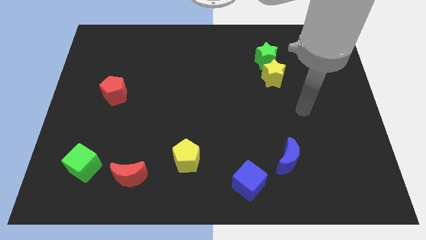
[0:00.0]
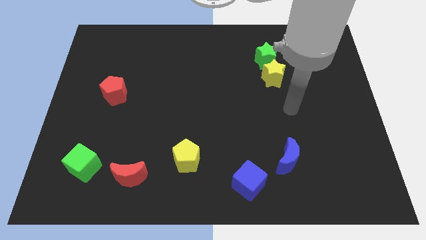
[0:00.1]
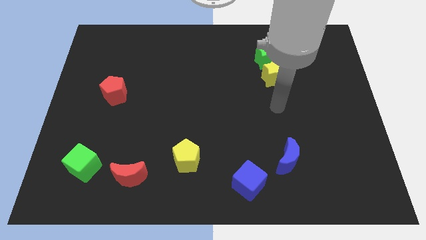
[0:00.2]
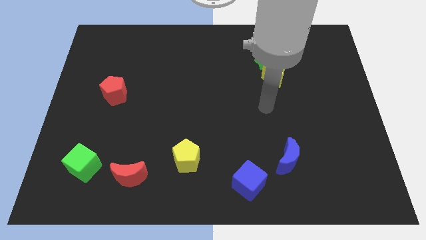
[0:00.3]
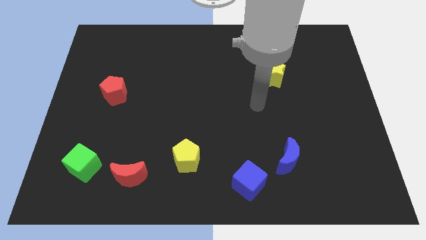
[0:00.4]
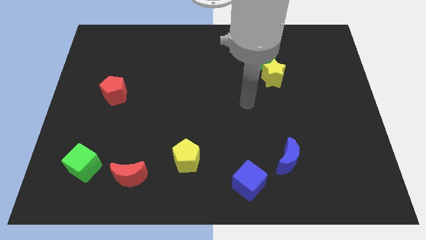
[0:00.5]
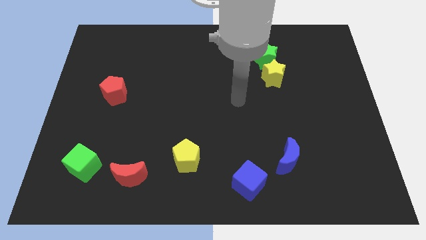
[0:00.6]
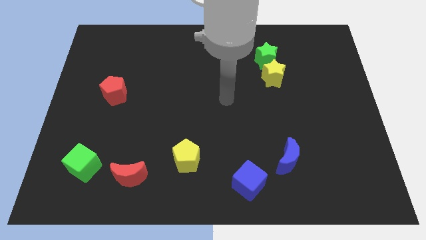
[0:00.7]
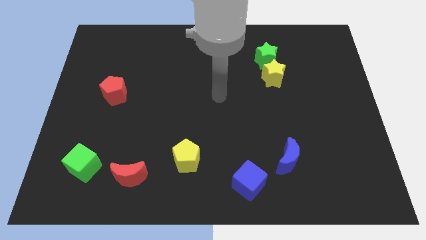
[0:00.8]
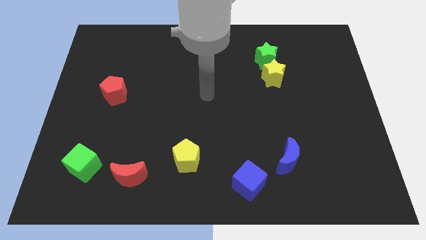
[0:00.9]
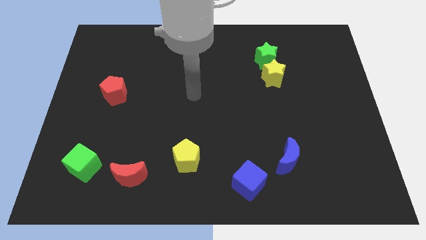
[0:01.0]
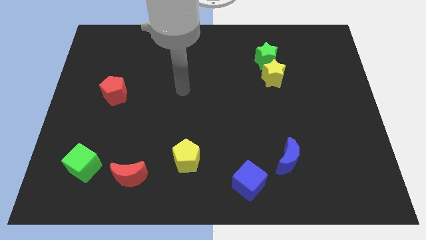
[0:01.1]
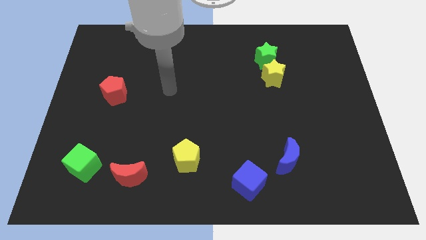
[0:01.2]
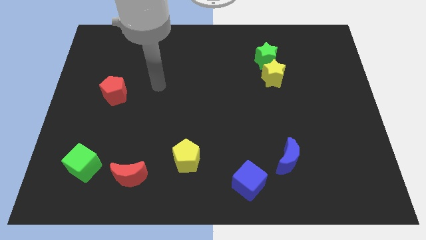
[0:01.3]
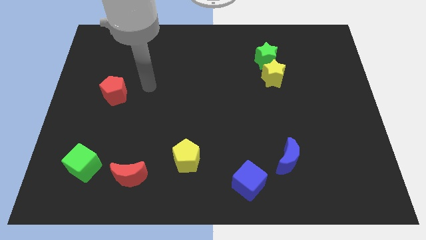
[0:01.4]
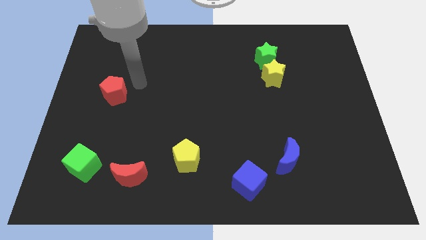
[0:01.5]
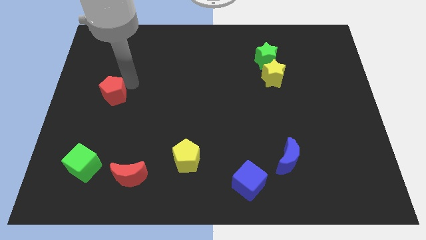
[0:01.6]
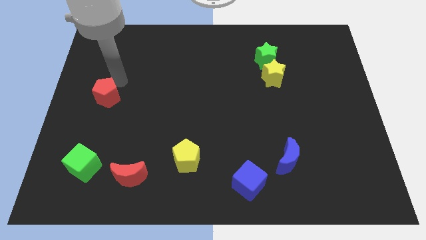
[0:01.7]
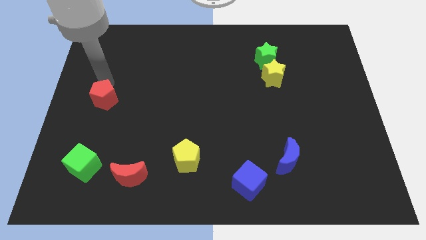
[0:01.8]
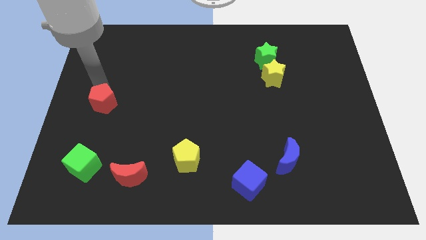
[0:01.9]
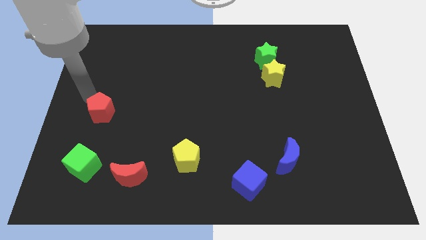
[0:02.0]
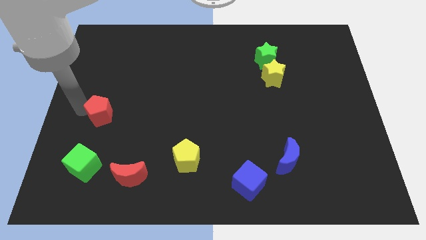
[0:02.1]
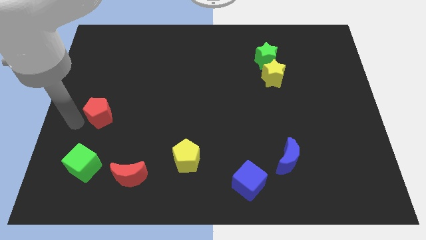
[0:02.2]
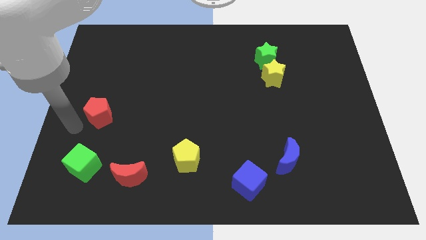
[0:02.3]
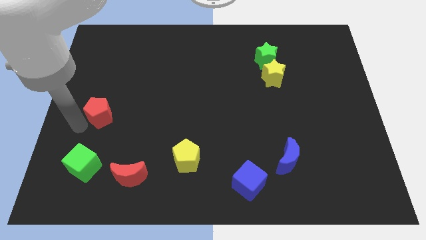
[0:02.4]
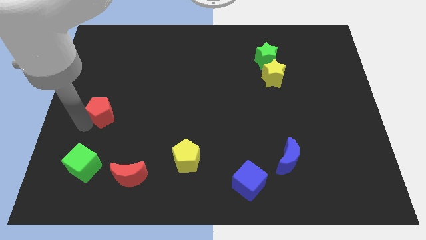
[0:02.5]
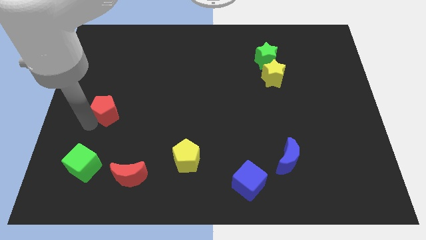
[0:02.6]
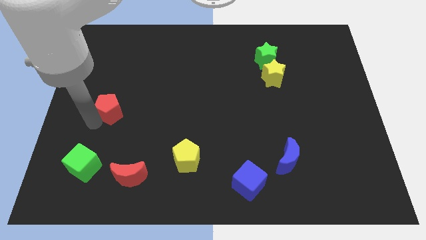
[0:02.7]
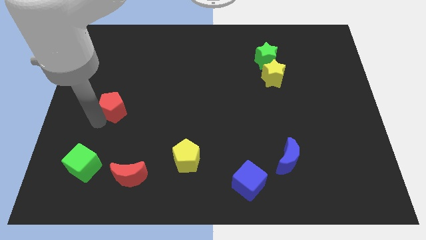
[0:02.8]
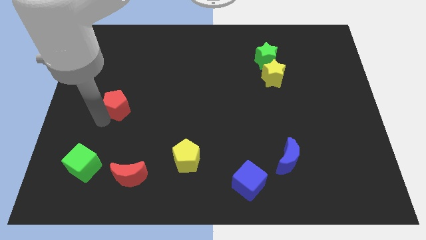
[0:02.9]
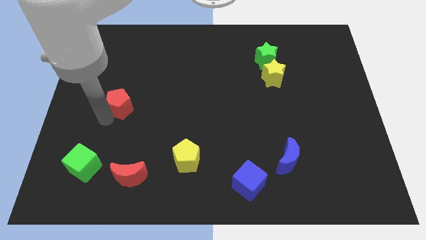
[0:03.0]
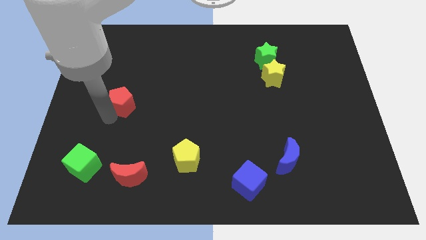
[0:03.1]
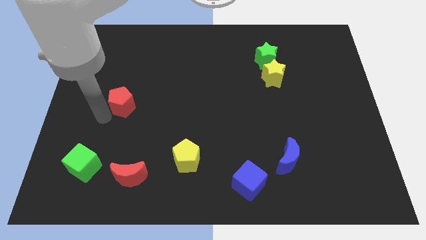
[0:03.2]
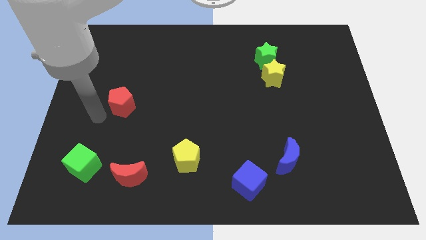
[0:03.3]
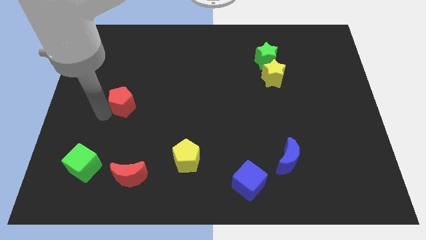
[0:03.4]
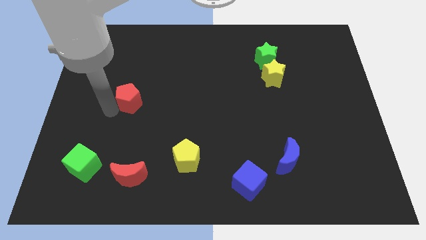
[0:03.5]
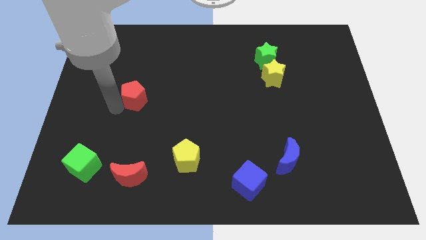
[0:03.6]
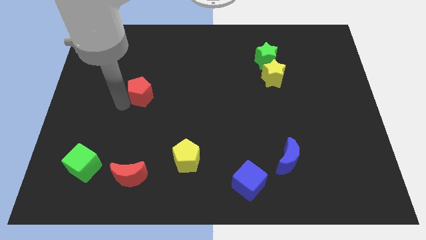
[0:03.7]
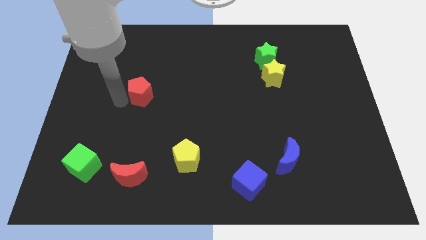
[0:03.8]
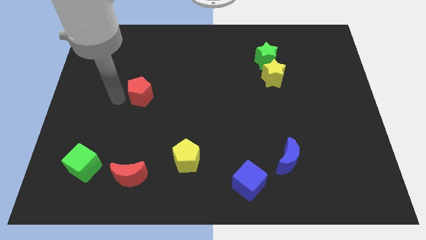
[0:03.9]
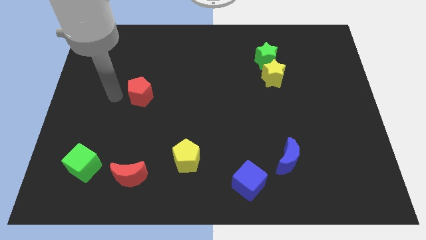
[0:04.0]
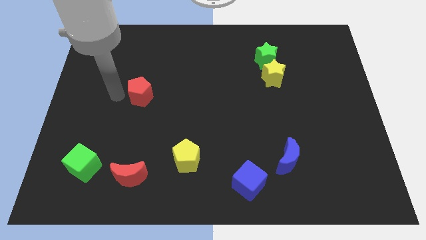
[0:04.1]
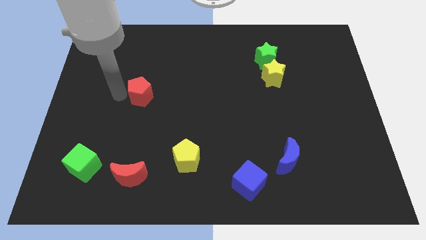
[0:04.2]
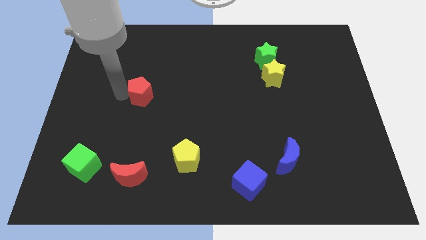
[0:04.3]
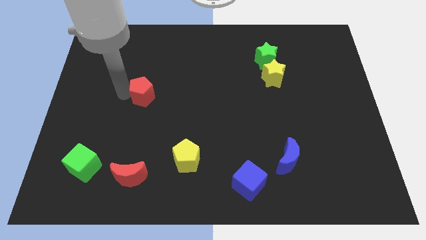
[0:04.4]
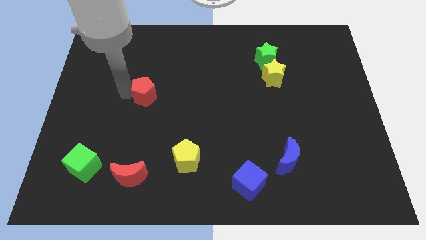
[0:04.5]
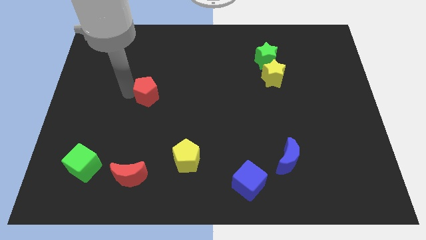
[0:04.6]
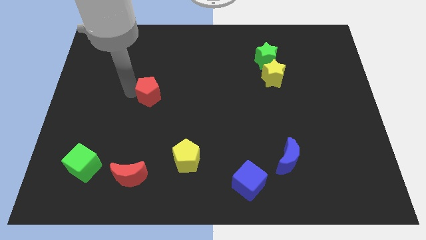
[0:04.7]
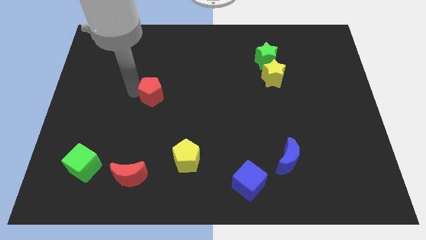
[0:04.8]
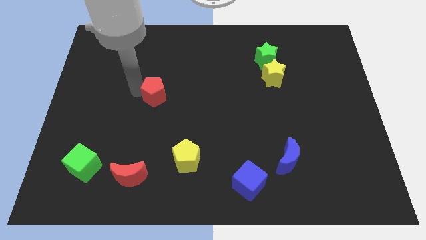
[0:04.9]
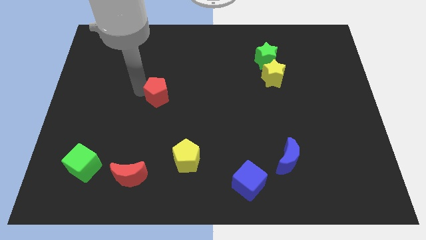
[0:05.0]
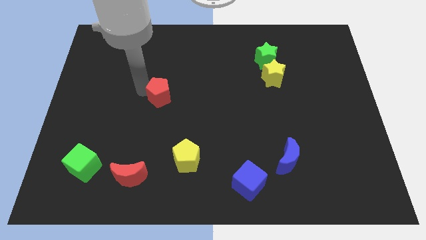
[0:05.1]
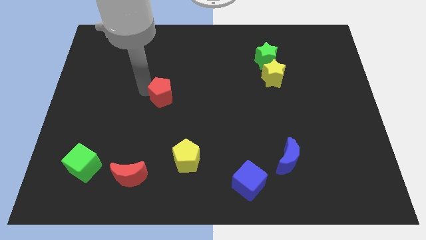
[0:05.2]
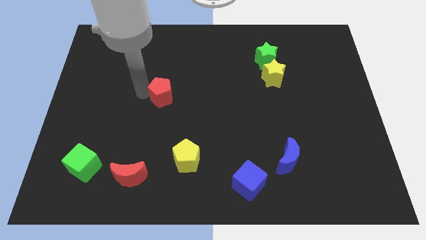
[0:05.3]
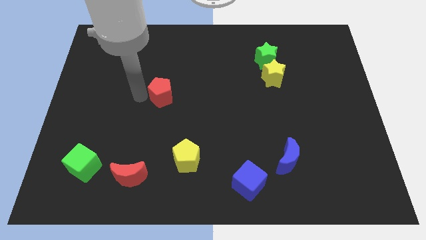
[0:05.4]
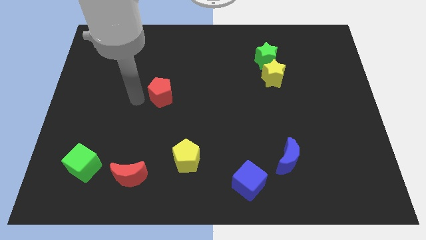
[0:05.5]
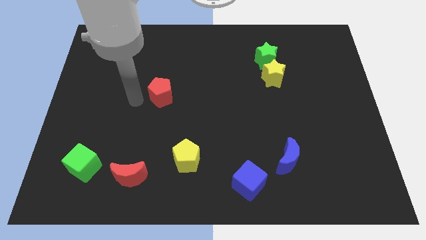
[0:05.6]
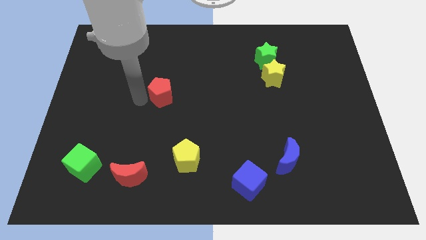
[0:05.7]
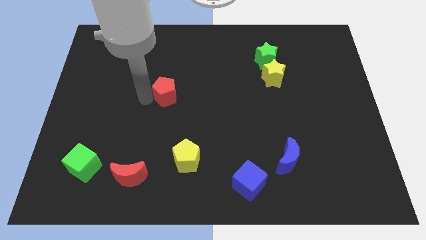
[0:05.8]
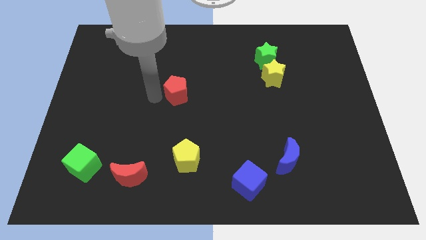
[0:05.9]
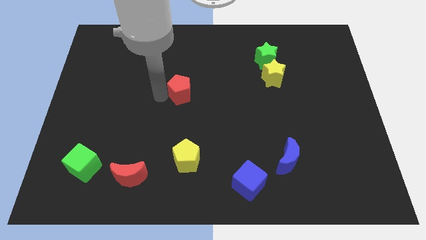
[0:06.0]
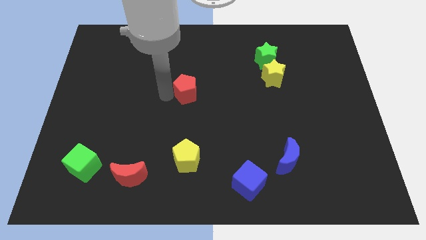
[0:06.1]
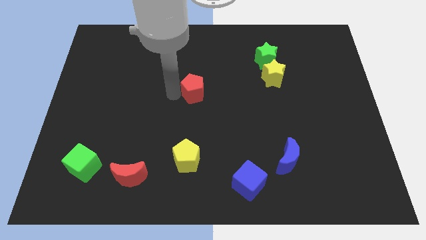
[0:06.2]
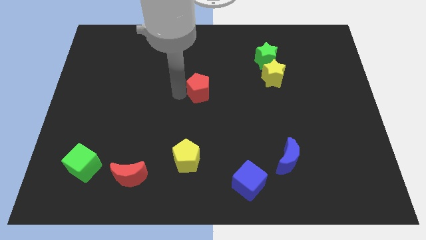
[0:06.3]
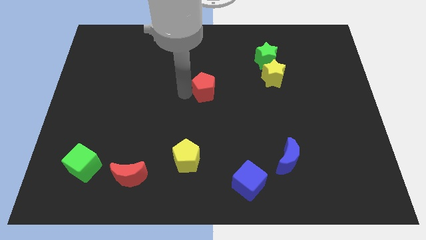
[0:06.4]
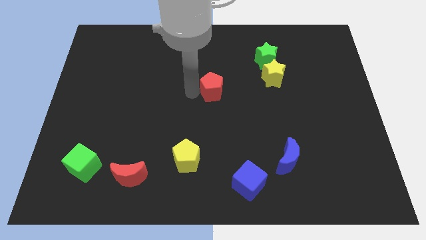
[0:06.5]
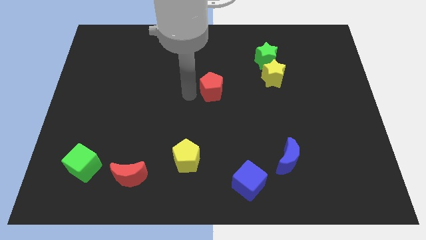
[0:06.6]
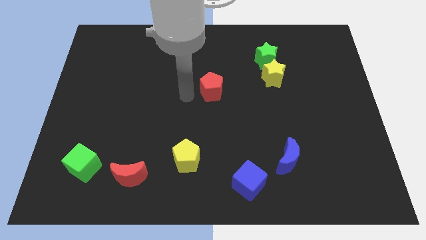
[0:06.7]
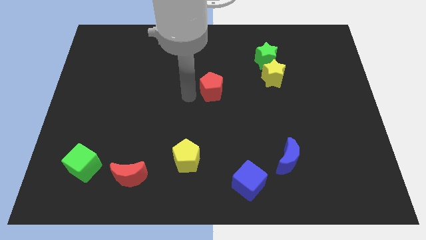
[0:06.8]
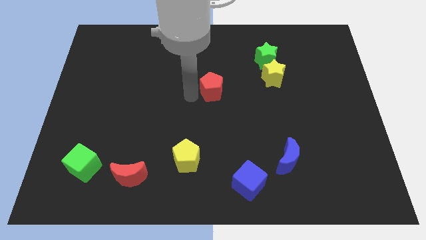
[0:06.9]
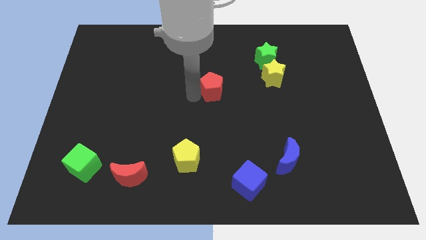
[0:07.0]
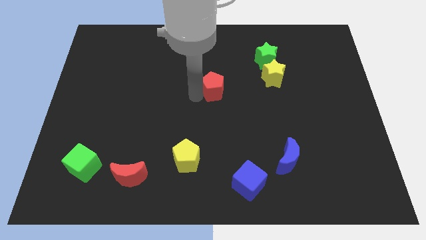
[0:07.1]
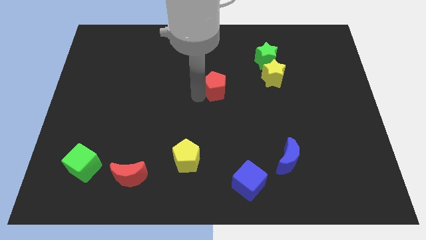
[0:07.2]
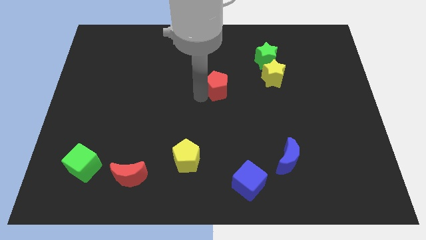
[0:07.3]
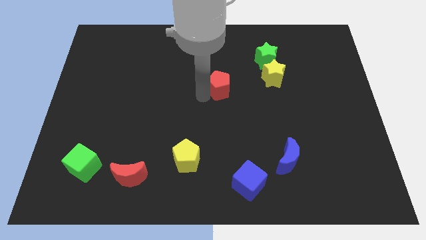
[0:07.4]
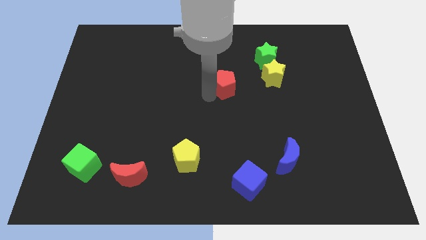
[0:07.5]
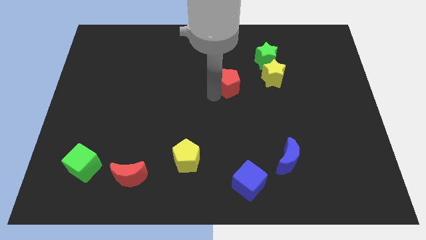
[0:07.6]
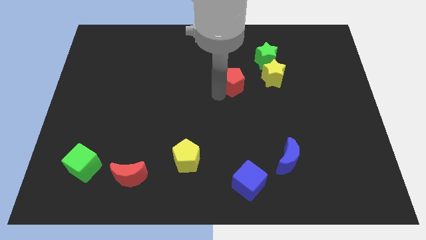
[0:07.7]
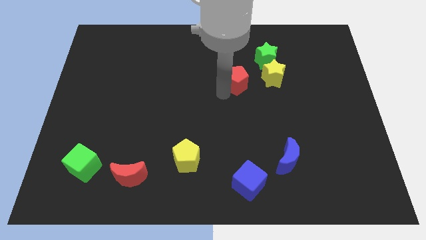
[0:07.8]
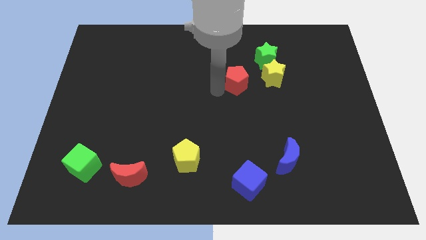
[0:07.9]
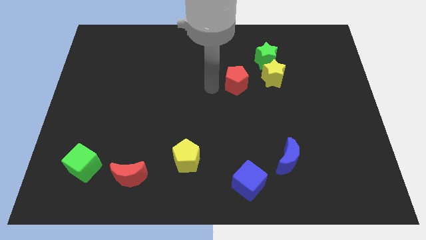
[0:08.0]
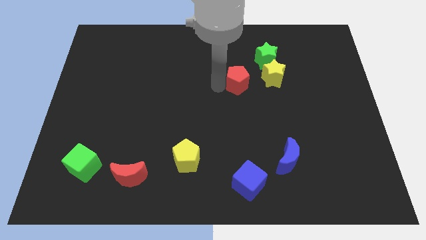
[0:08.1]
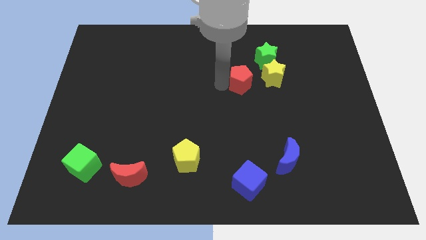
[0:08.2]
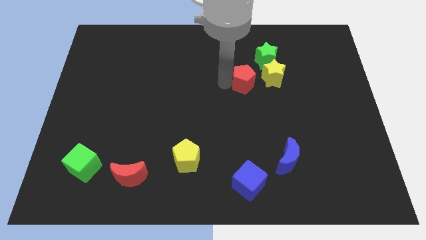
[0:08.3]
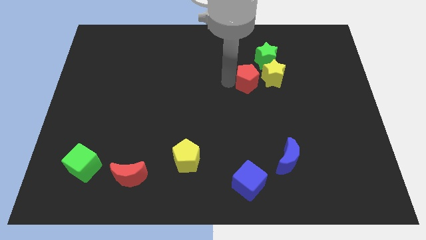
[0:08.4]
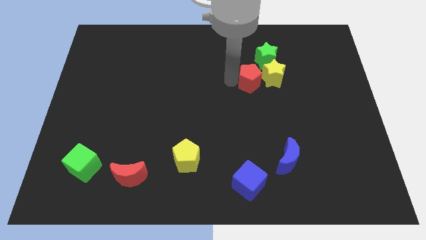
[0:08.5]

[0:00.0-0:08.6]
push the red pentagon to the yellow star
